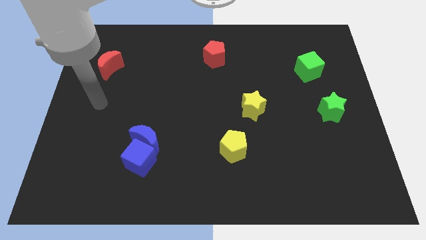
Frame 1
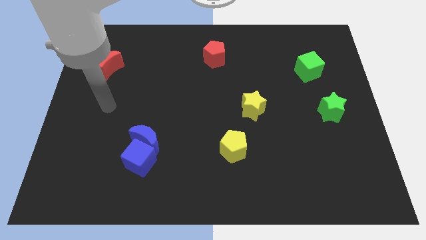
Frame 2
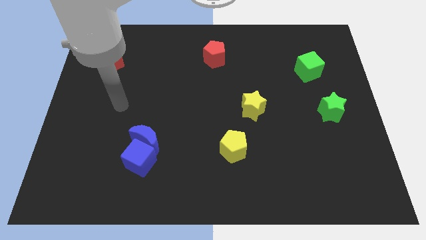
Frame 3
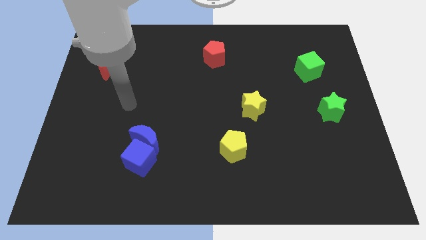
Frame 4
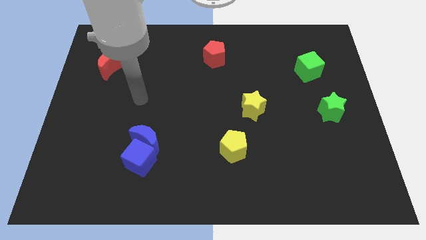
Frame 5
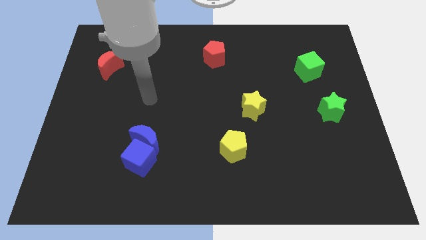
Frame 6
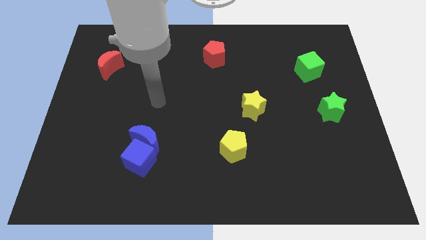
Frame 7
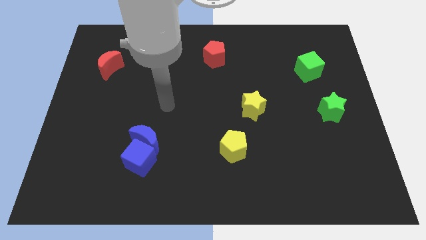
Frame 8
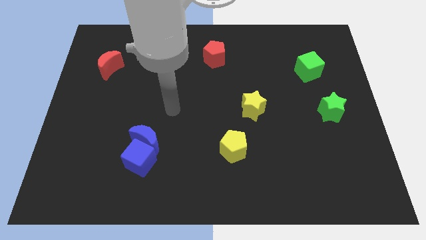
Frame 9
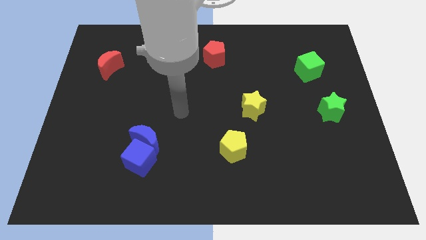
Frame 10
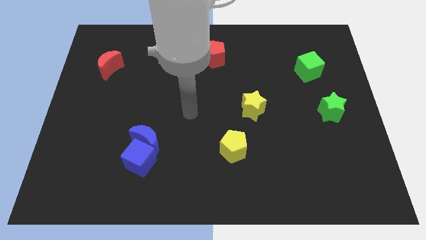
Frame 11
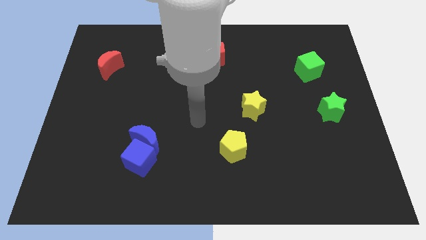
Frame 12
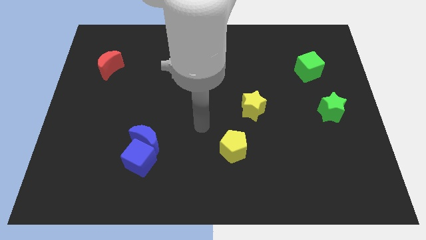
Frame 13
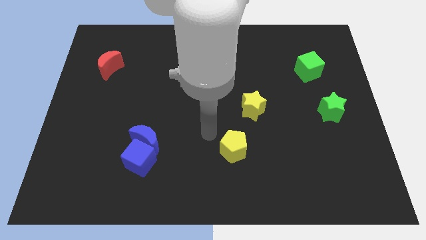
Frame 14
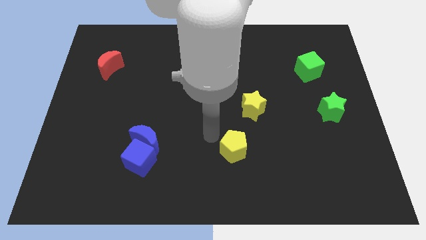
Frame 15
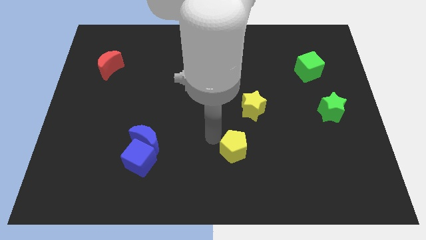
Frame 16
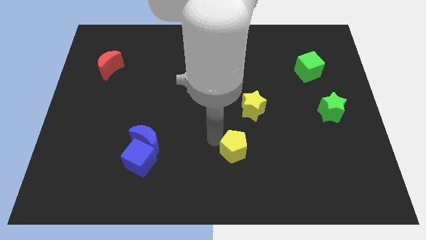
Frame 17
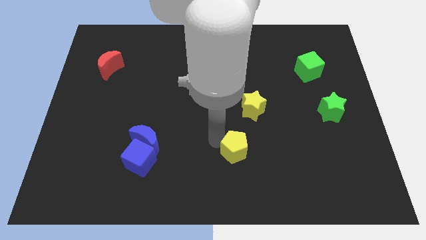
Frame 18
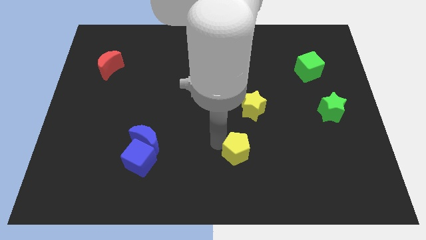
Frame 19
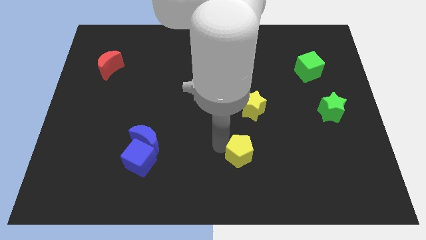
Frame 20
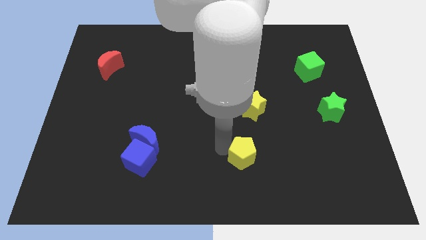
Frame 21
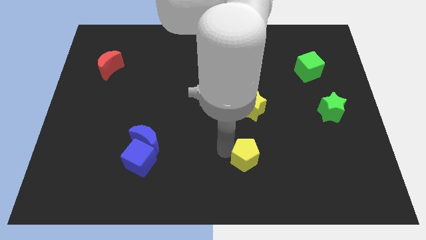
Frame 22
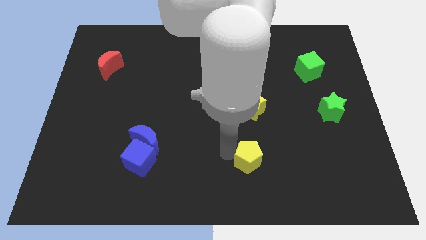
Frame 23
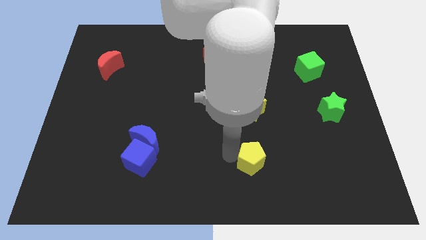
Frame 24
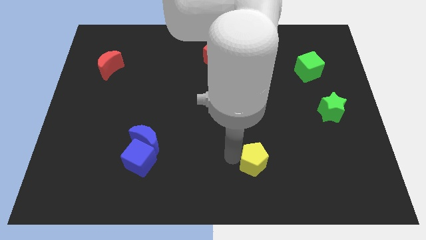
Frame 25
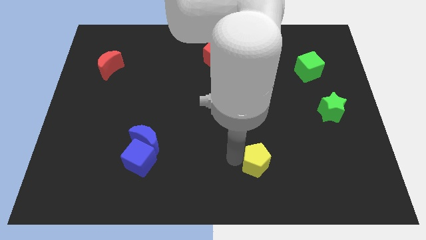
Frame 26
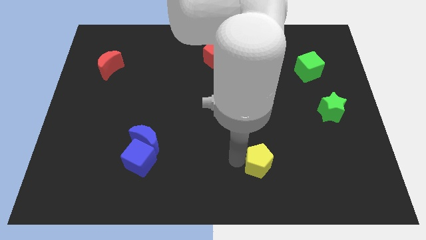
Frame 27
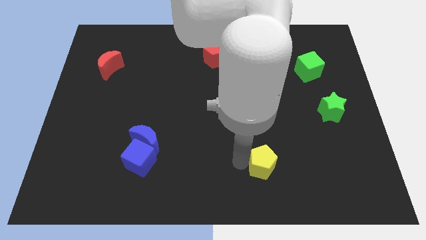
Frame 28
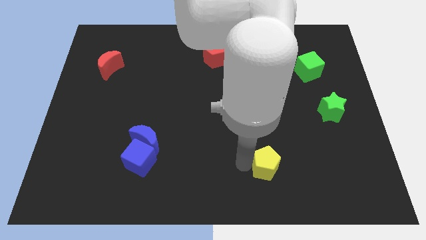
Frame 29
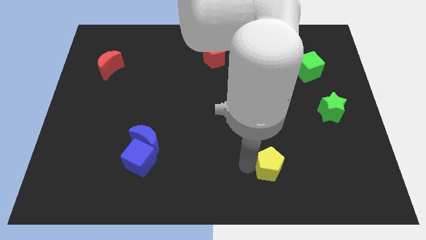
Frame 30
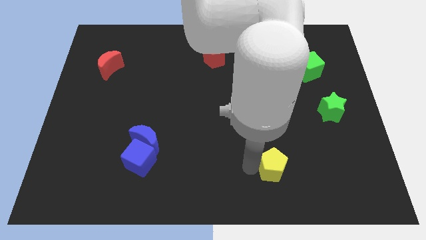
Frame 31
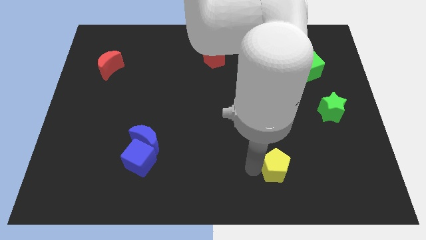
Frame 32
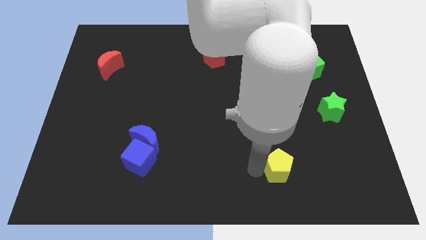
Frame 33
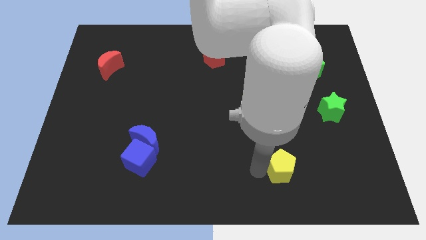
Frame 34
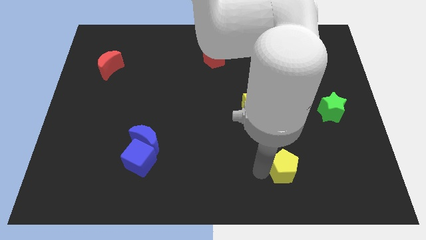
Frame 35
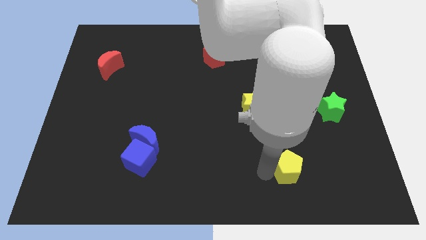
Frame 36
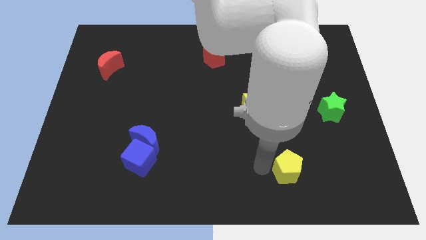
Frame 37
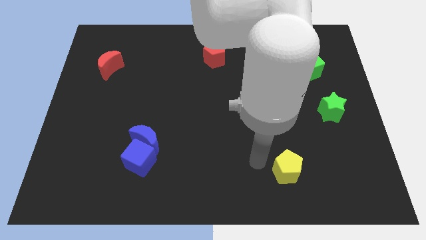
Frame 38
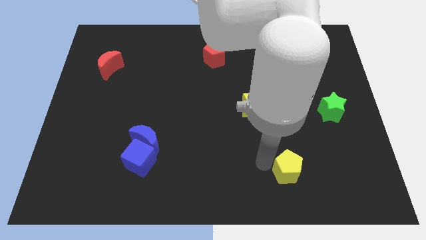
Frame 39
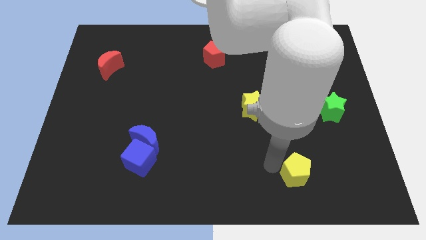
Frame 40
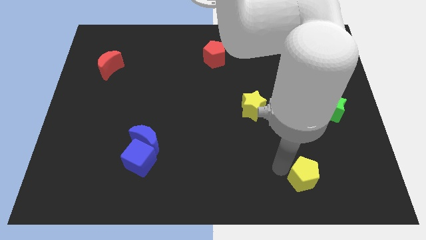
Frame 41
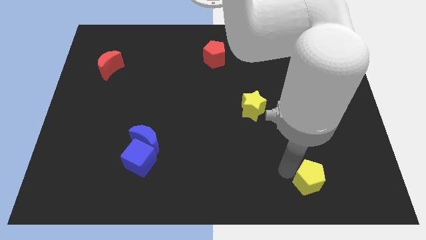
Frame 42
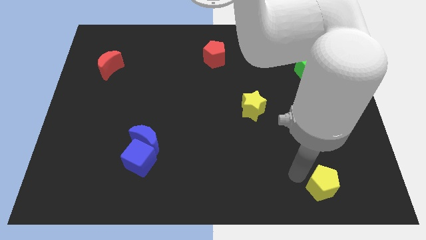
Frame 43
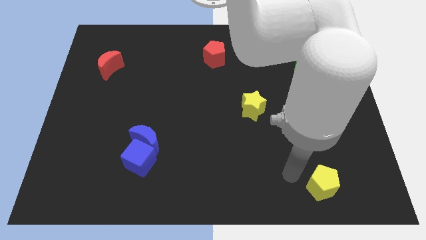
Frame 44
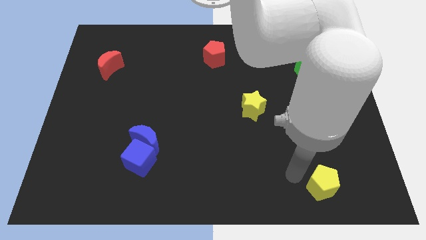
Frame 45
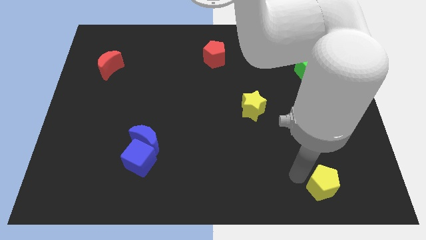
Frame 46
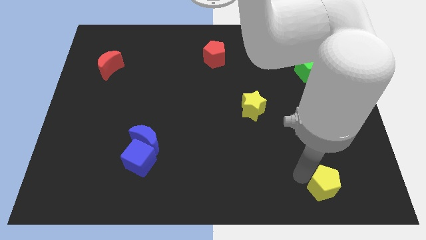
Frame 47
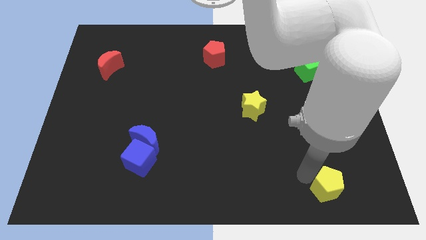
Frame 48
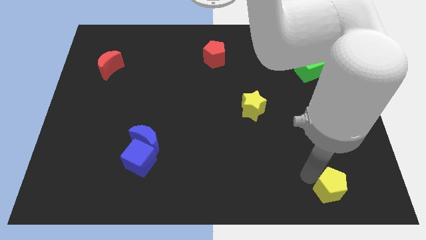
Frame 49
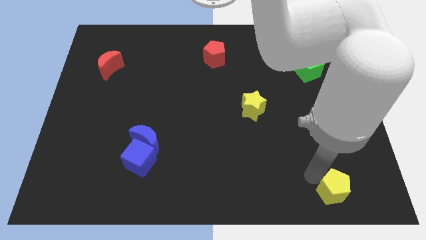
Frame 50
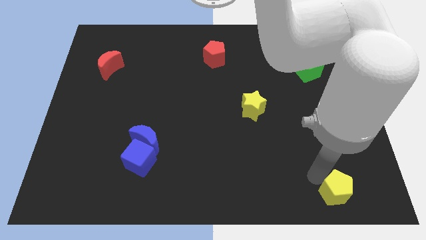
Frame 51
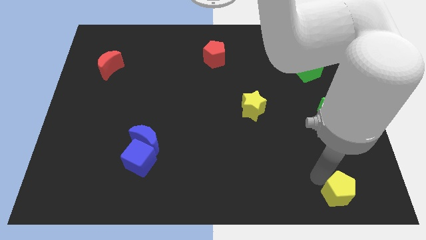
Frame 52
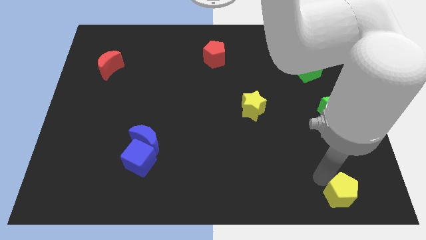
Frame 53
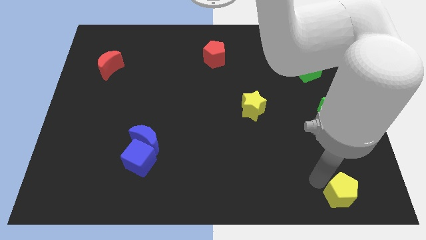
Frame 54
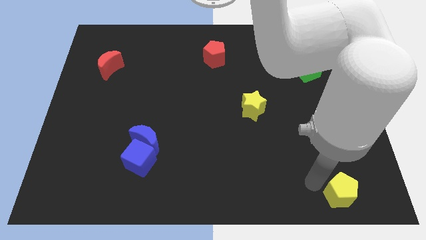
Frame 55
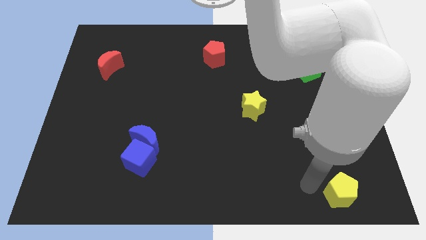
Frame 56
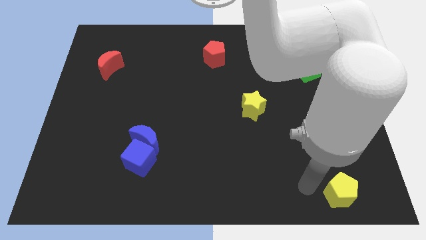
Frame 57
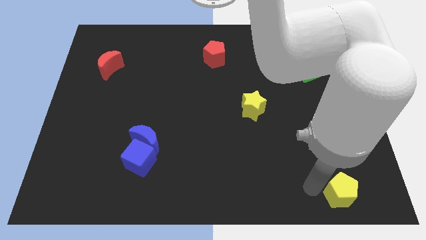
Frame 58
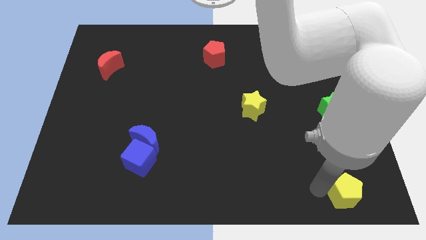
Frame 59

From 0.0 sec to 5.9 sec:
slide the yellow pentagon to the bottom right

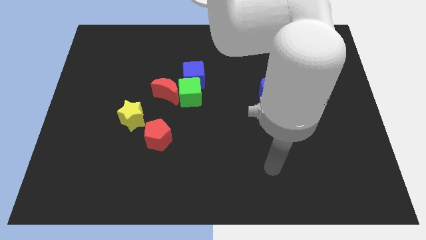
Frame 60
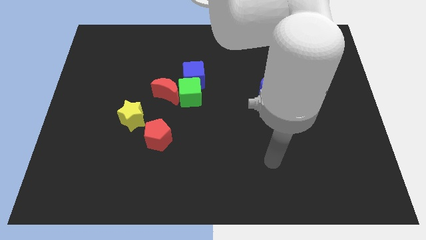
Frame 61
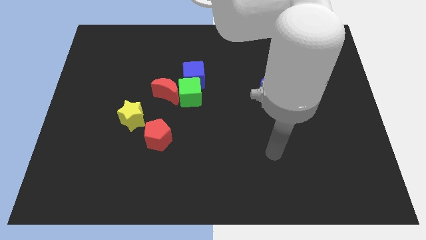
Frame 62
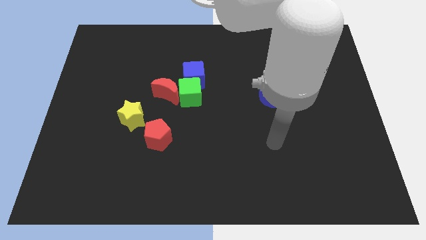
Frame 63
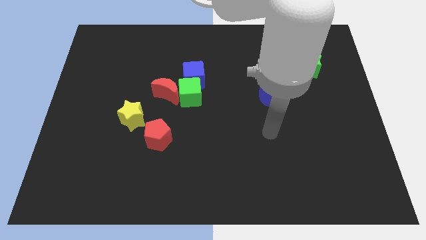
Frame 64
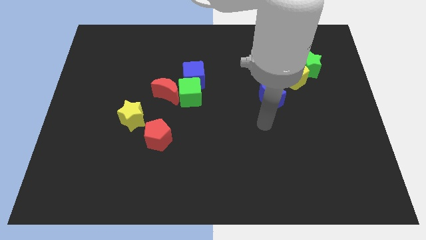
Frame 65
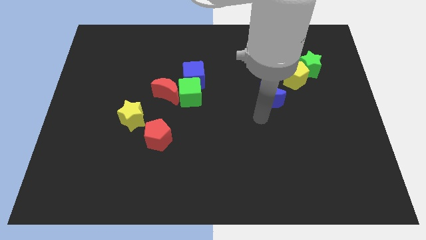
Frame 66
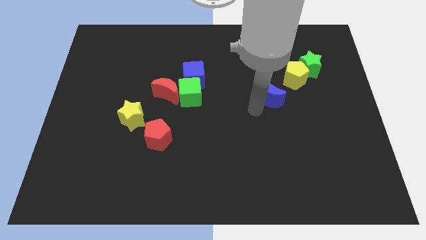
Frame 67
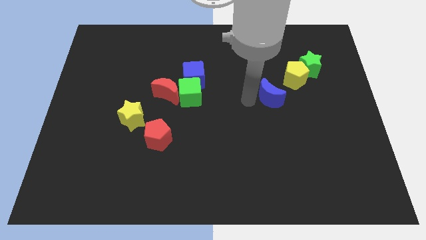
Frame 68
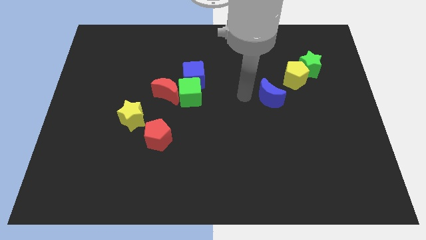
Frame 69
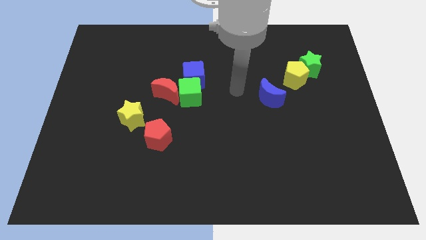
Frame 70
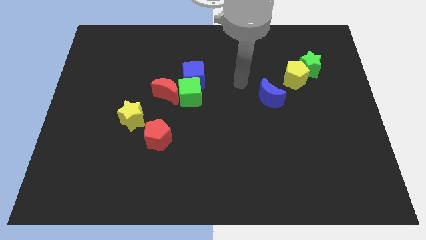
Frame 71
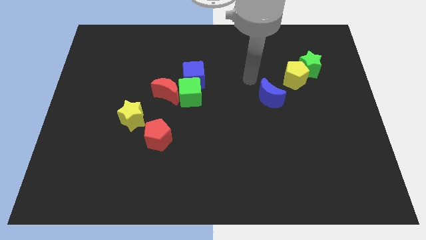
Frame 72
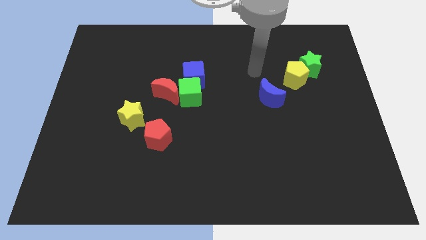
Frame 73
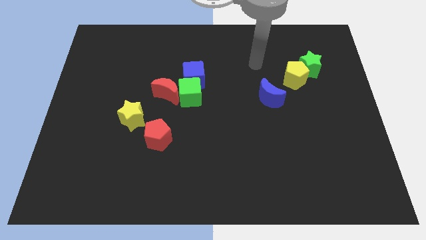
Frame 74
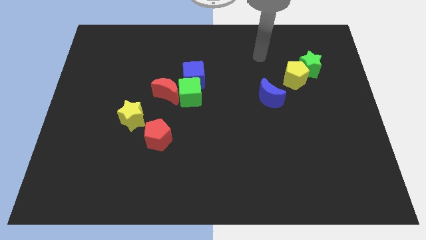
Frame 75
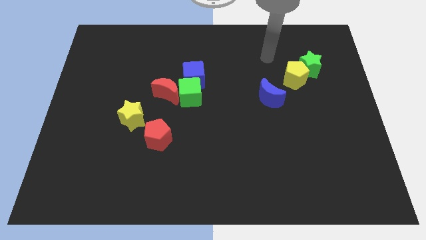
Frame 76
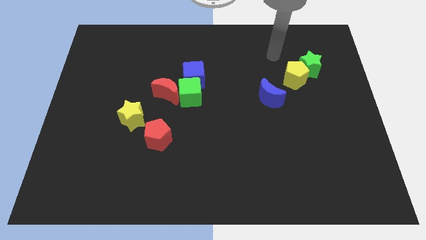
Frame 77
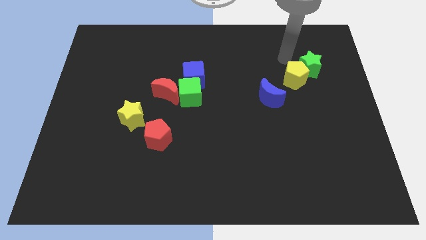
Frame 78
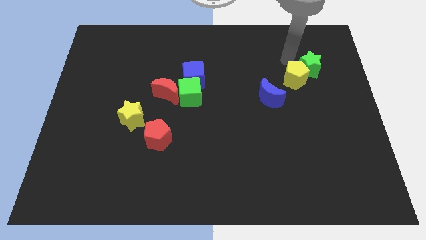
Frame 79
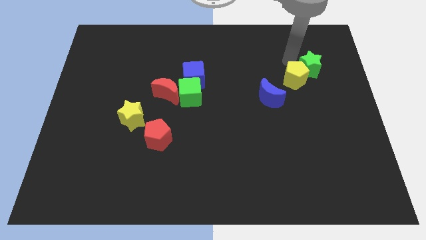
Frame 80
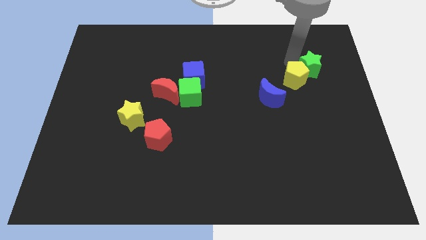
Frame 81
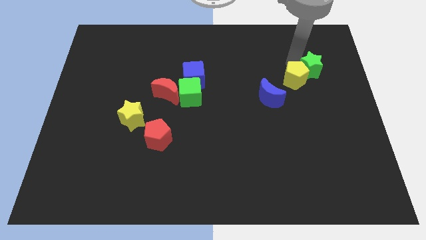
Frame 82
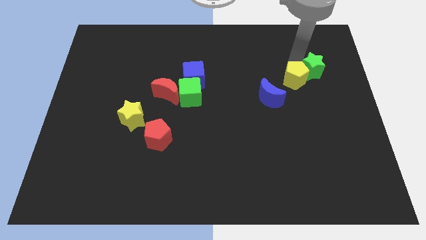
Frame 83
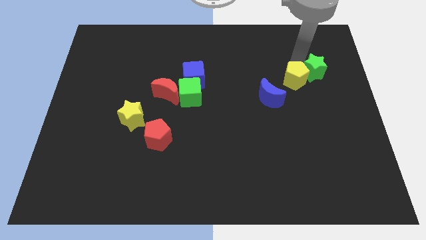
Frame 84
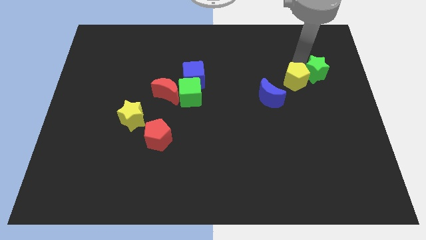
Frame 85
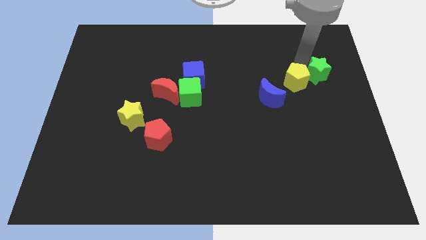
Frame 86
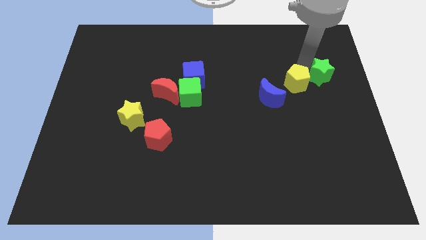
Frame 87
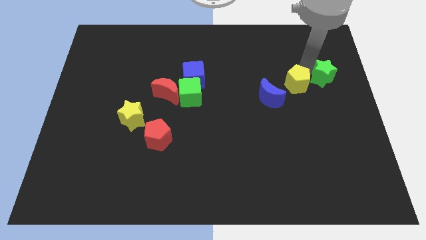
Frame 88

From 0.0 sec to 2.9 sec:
move the green star to the right side
